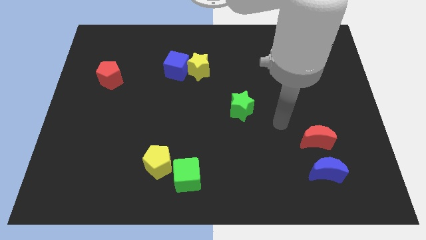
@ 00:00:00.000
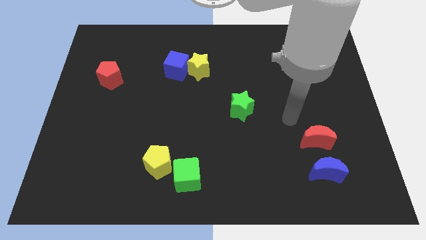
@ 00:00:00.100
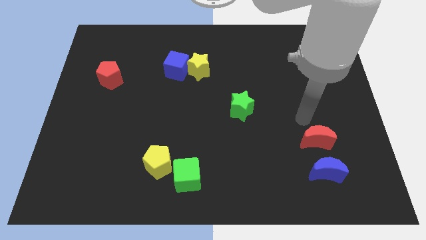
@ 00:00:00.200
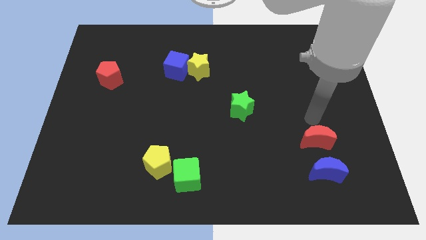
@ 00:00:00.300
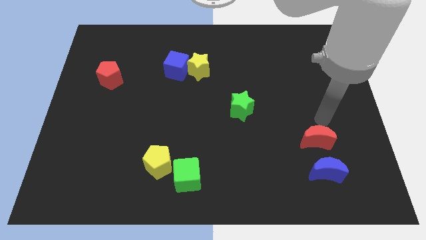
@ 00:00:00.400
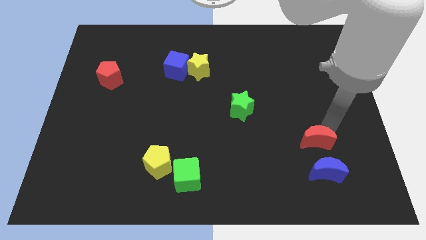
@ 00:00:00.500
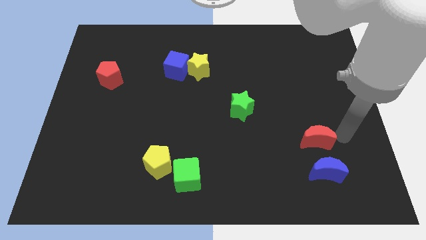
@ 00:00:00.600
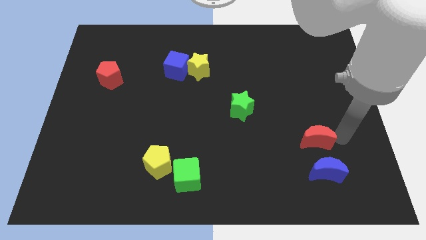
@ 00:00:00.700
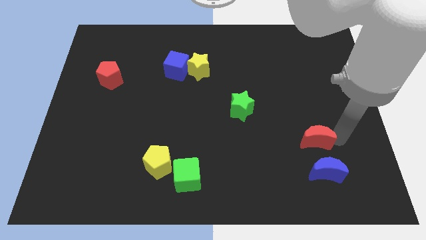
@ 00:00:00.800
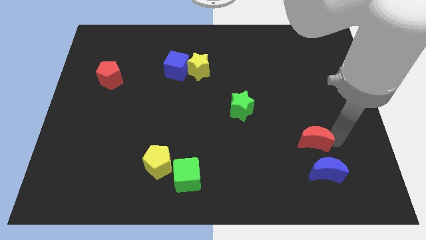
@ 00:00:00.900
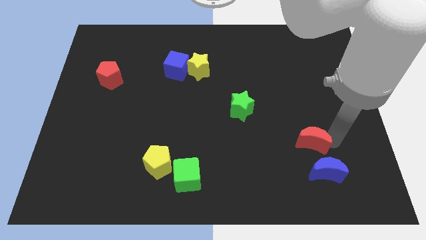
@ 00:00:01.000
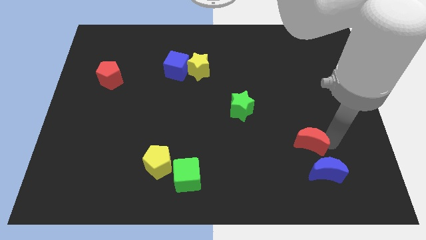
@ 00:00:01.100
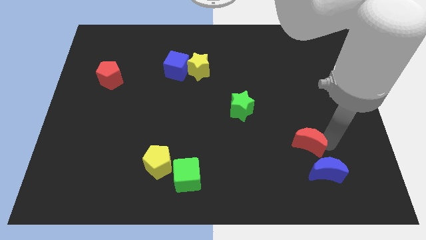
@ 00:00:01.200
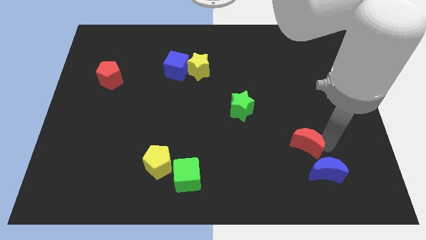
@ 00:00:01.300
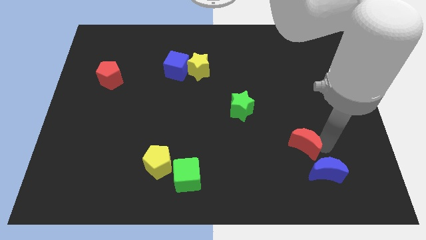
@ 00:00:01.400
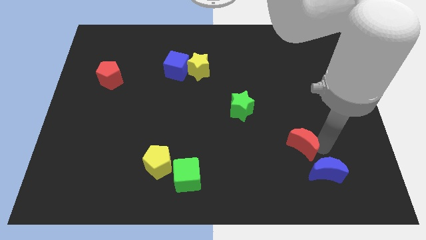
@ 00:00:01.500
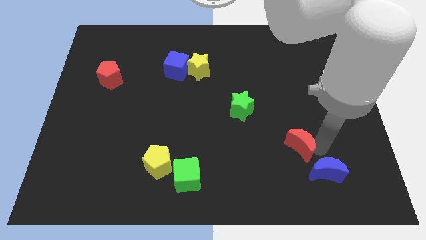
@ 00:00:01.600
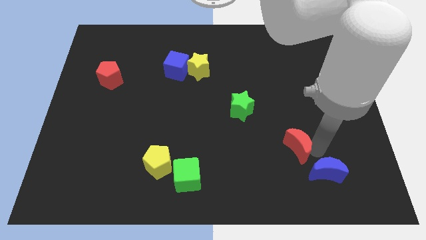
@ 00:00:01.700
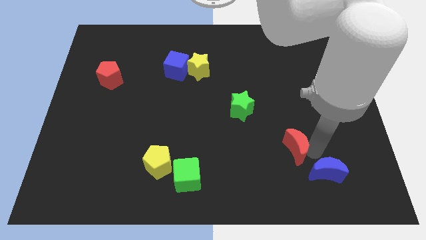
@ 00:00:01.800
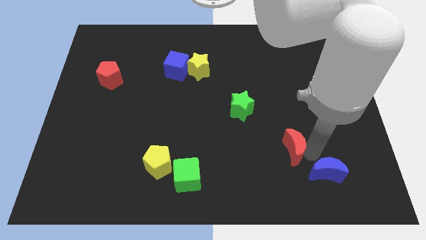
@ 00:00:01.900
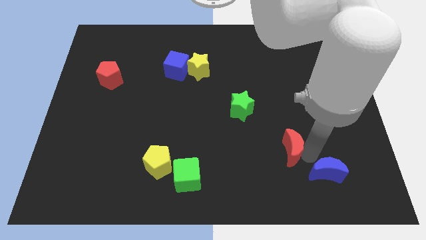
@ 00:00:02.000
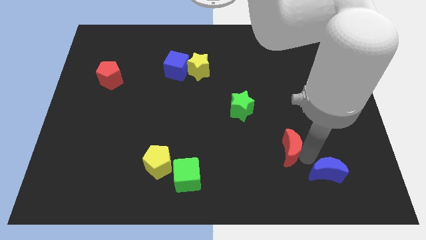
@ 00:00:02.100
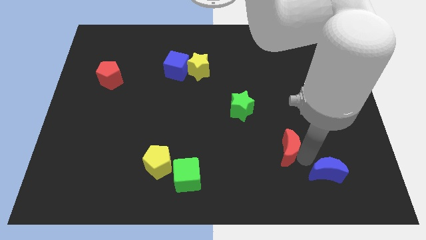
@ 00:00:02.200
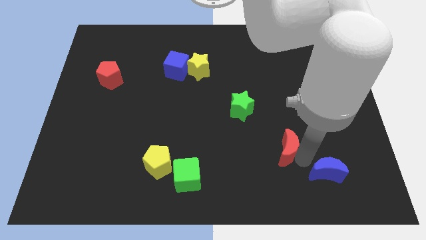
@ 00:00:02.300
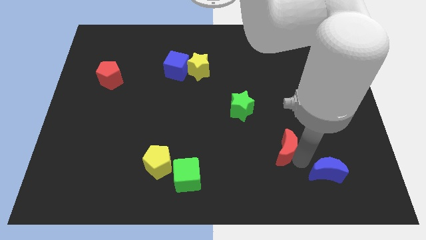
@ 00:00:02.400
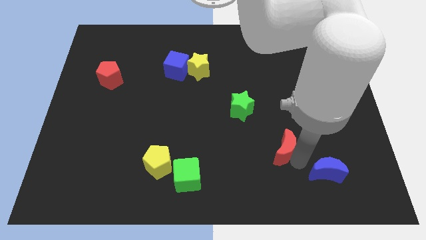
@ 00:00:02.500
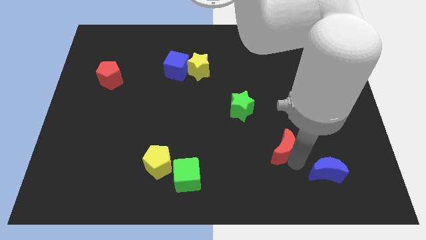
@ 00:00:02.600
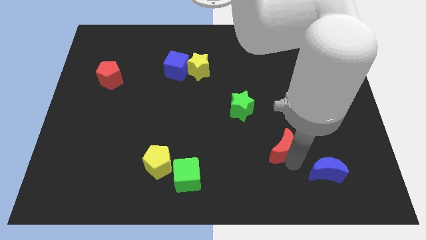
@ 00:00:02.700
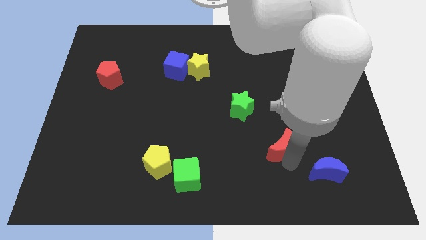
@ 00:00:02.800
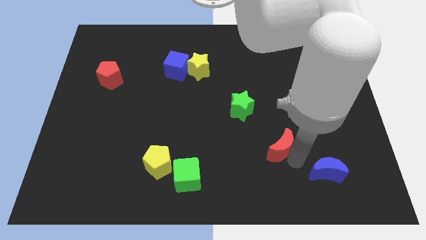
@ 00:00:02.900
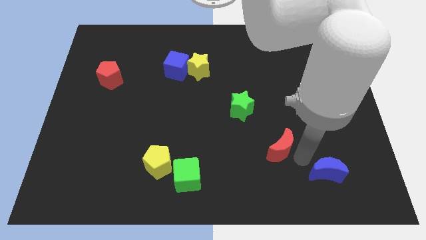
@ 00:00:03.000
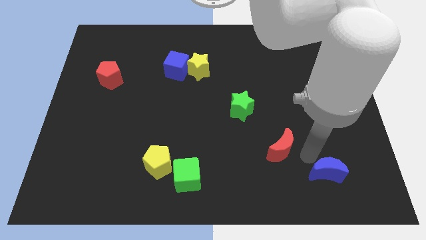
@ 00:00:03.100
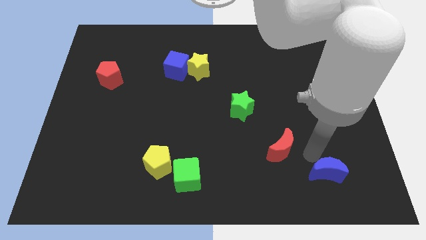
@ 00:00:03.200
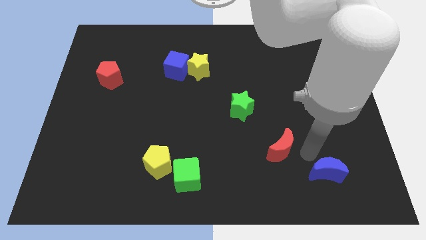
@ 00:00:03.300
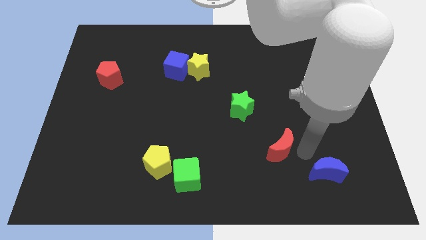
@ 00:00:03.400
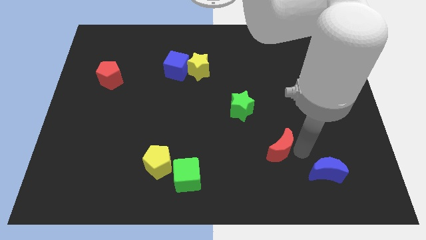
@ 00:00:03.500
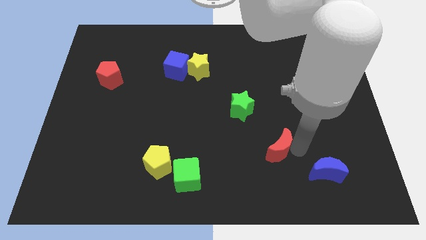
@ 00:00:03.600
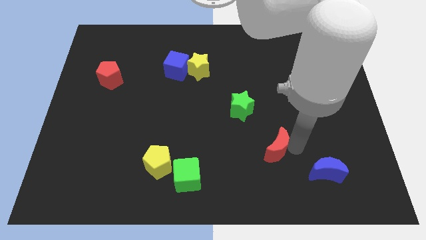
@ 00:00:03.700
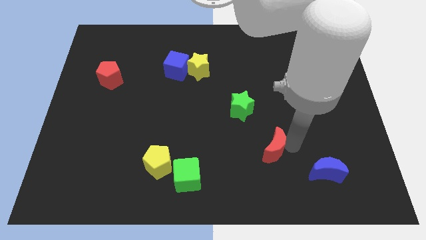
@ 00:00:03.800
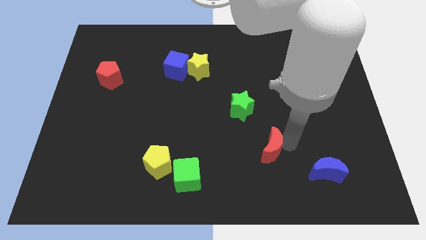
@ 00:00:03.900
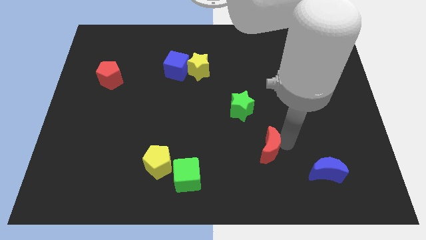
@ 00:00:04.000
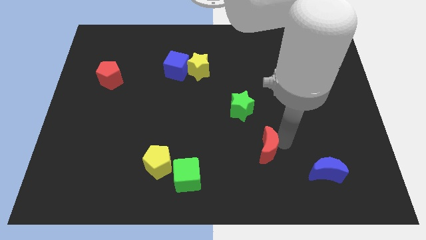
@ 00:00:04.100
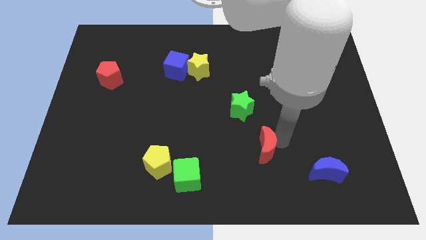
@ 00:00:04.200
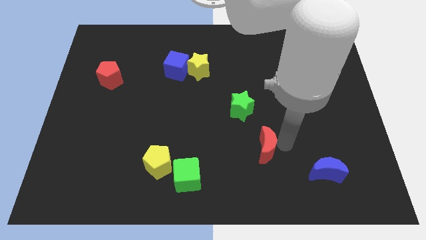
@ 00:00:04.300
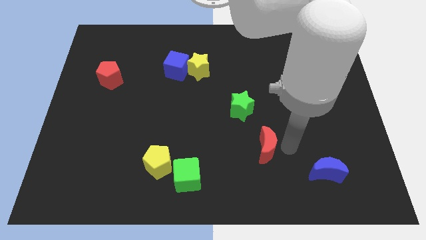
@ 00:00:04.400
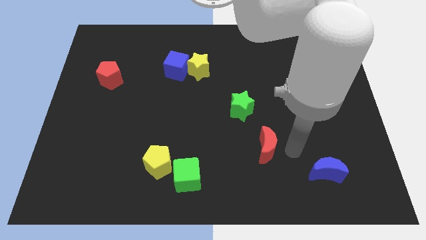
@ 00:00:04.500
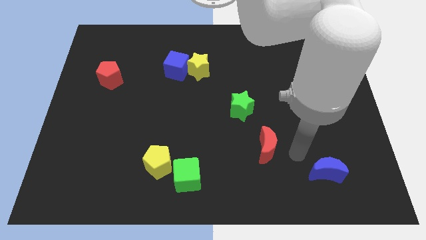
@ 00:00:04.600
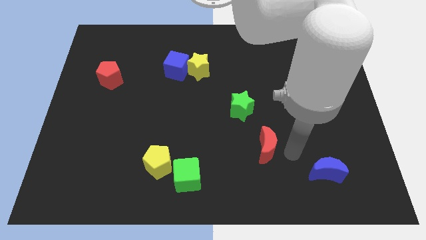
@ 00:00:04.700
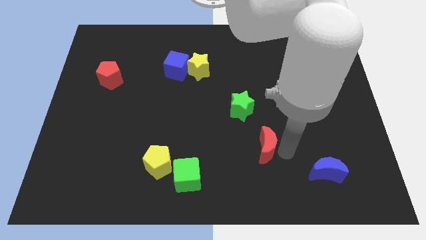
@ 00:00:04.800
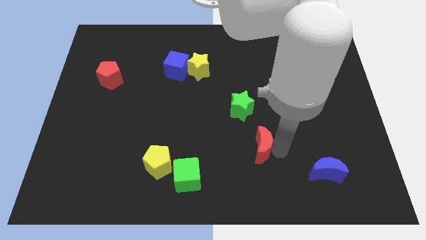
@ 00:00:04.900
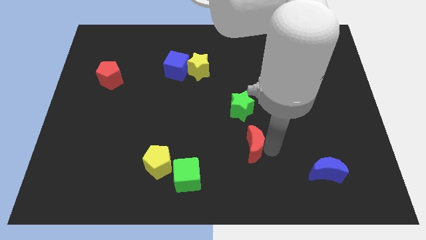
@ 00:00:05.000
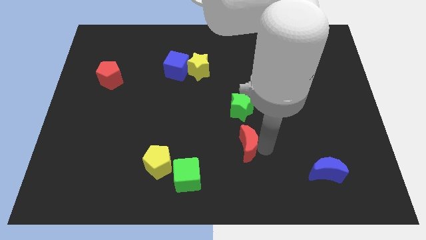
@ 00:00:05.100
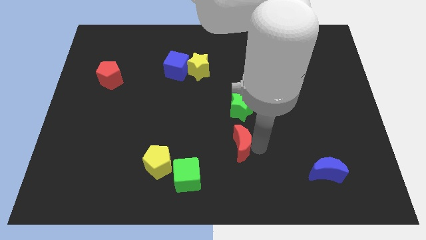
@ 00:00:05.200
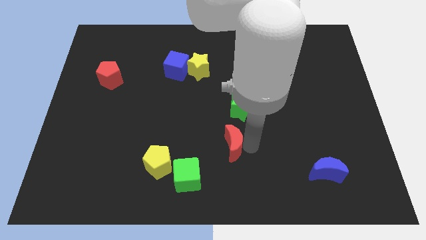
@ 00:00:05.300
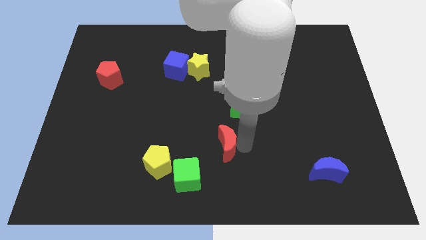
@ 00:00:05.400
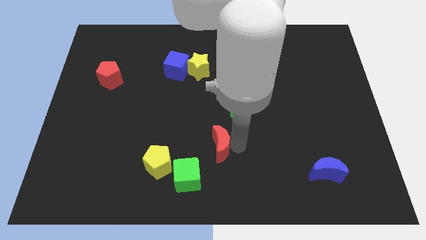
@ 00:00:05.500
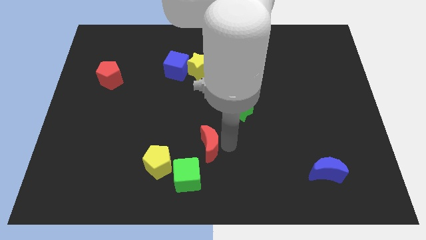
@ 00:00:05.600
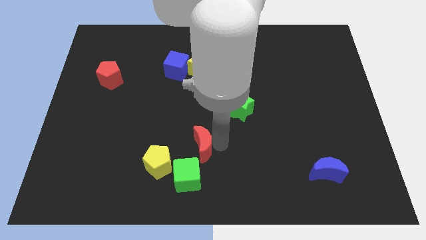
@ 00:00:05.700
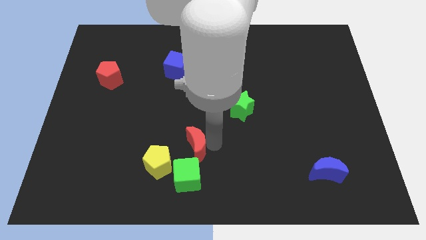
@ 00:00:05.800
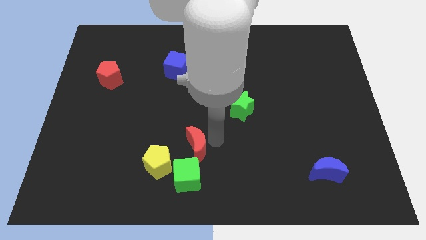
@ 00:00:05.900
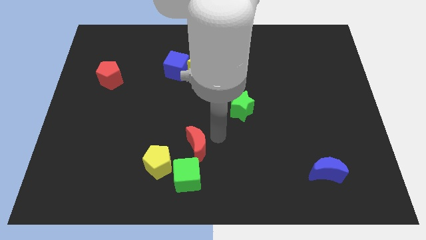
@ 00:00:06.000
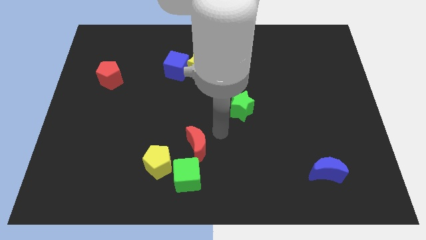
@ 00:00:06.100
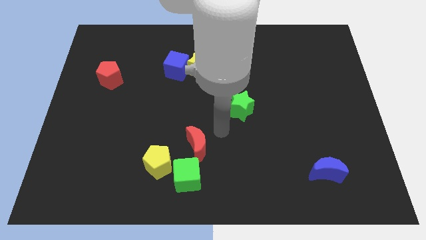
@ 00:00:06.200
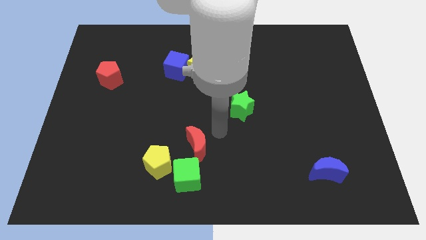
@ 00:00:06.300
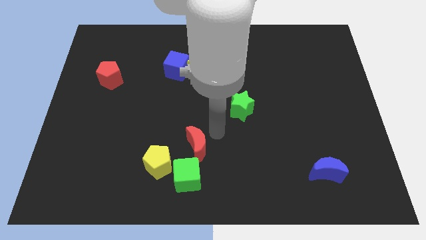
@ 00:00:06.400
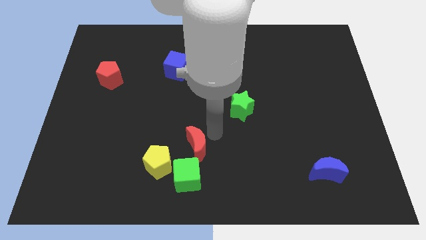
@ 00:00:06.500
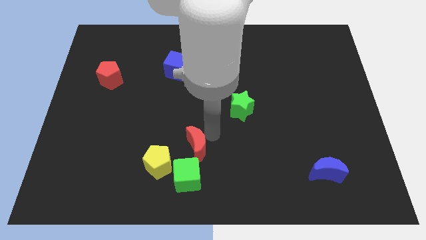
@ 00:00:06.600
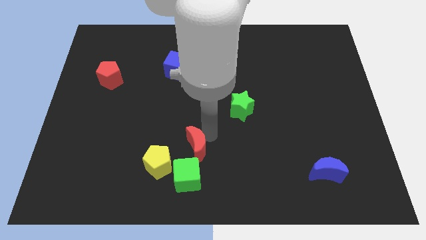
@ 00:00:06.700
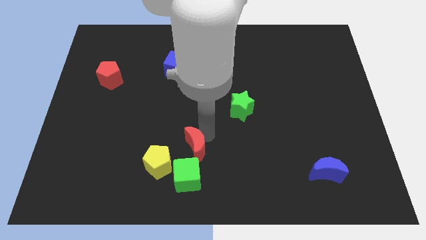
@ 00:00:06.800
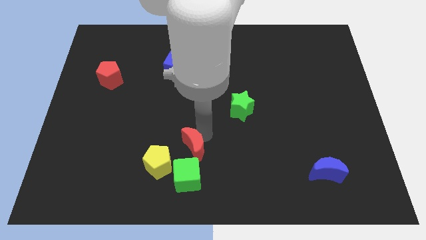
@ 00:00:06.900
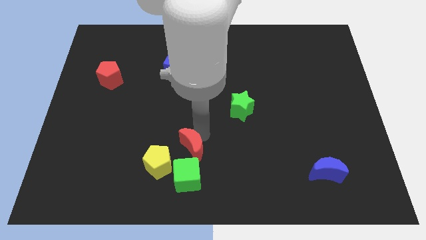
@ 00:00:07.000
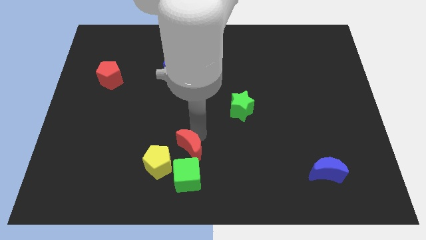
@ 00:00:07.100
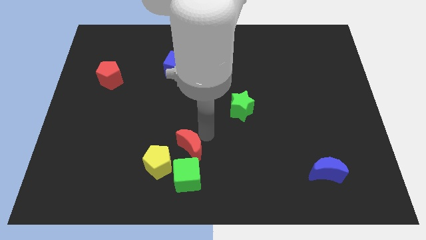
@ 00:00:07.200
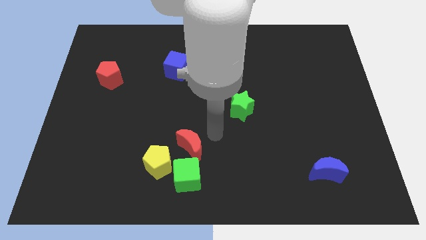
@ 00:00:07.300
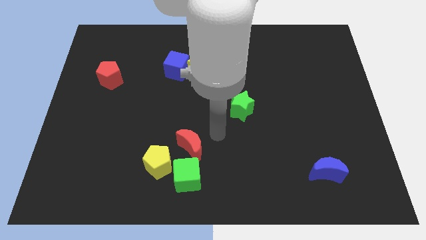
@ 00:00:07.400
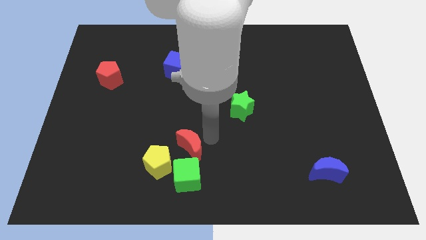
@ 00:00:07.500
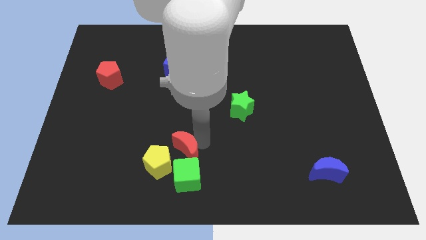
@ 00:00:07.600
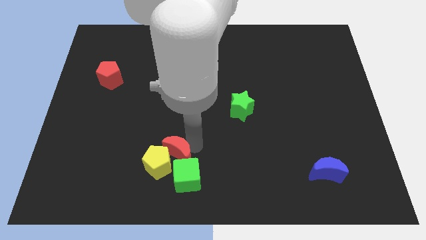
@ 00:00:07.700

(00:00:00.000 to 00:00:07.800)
slide the red moon to the yellow pentagon
